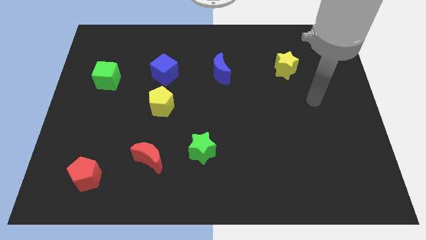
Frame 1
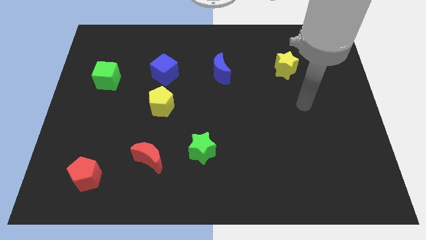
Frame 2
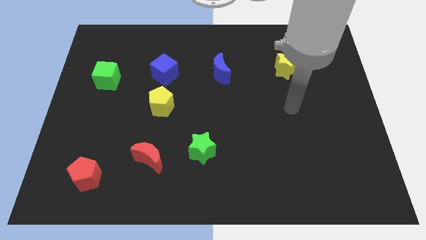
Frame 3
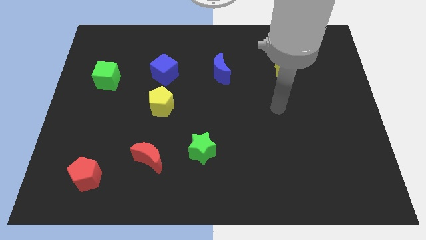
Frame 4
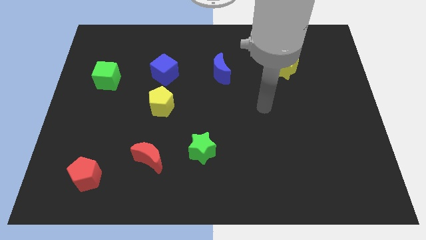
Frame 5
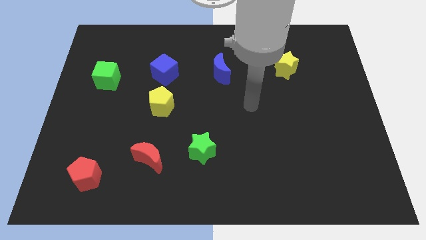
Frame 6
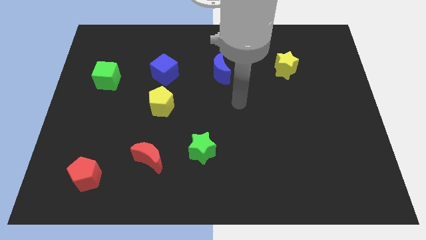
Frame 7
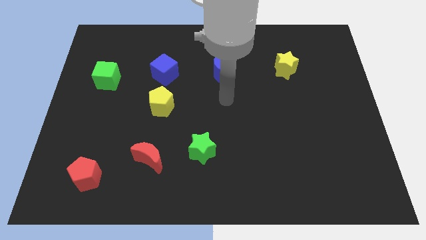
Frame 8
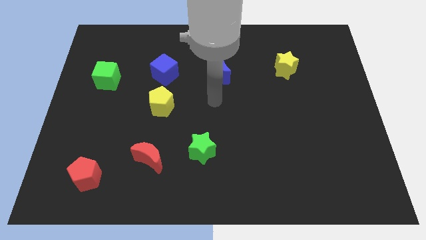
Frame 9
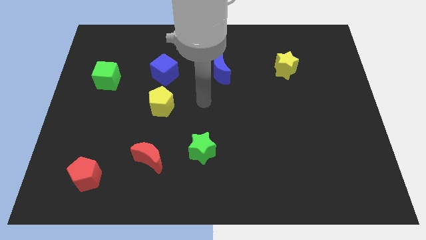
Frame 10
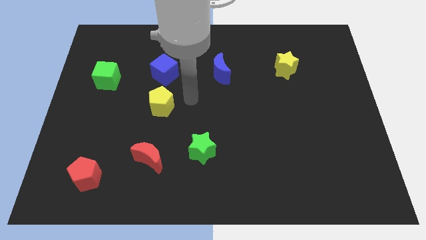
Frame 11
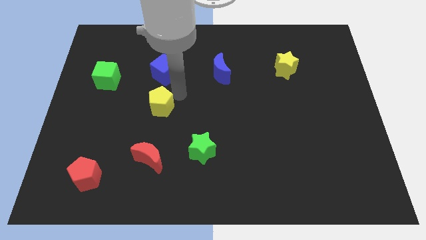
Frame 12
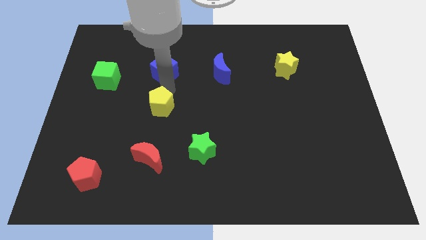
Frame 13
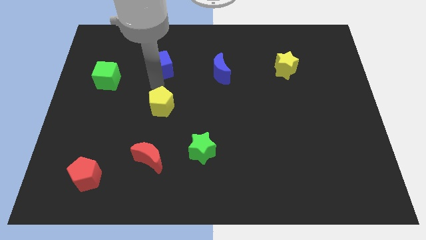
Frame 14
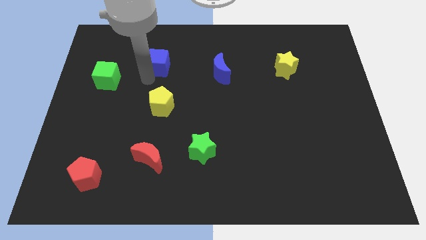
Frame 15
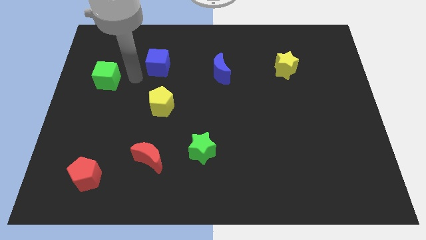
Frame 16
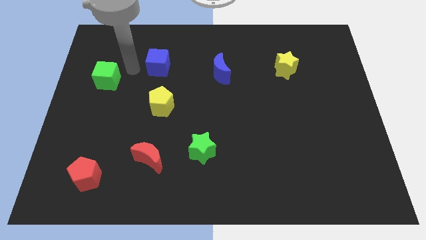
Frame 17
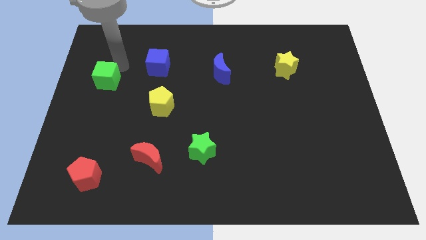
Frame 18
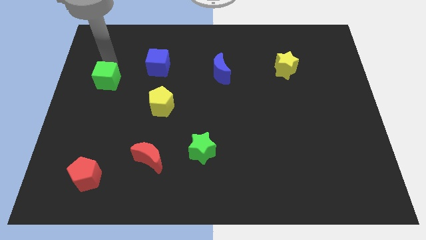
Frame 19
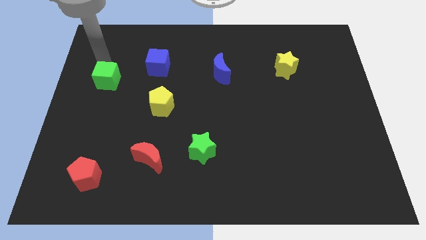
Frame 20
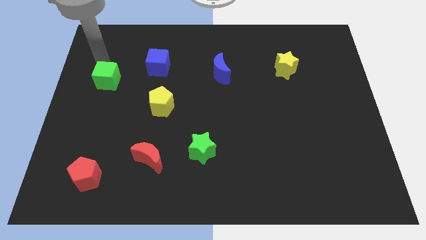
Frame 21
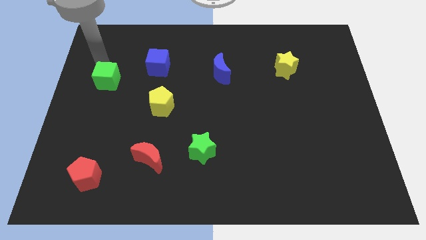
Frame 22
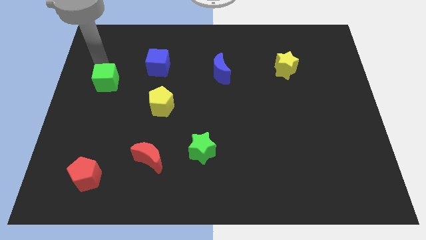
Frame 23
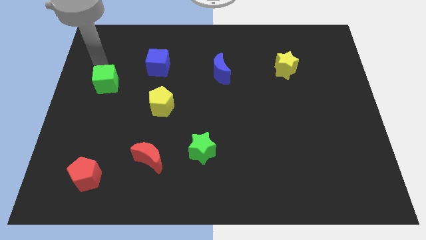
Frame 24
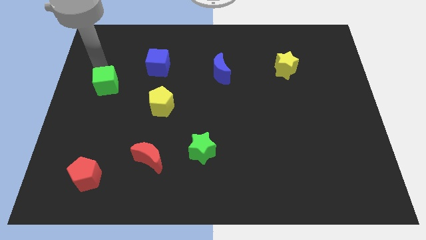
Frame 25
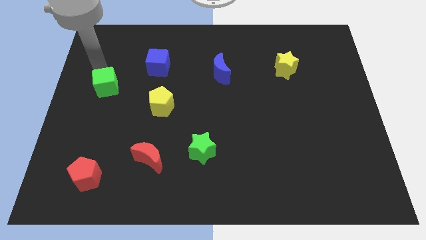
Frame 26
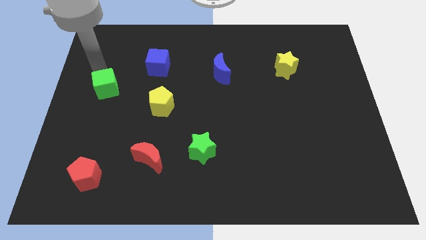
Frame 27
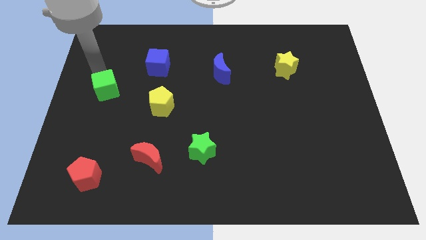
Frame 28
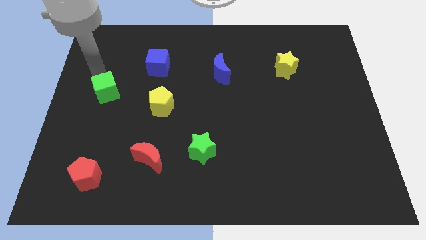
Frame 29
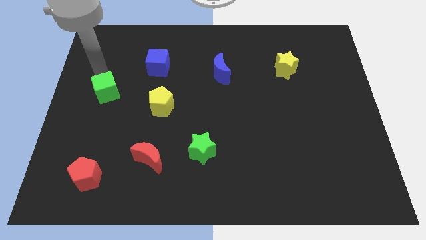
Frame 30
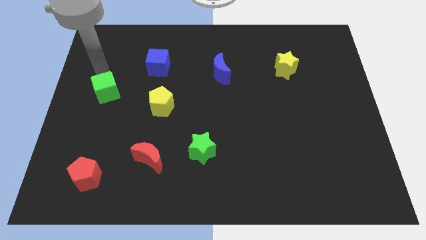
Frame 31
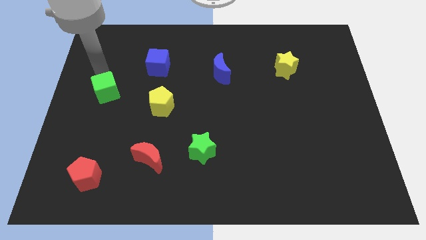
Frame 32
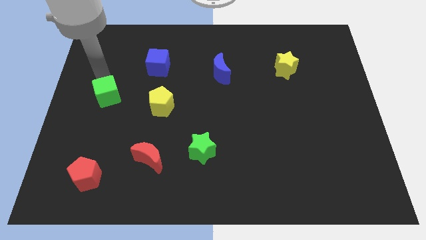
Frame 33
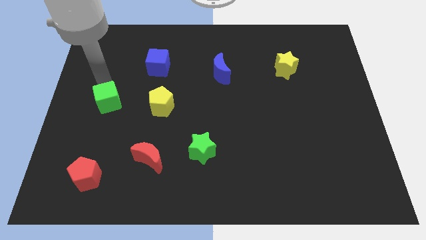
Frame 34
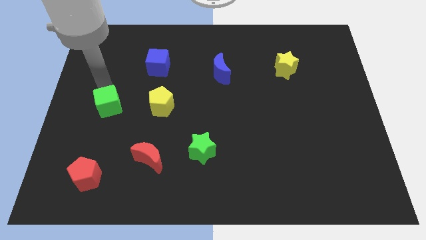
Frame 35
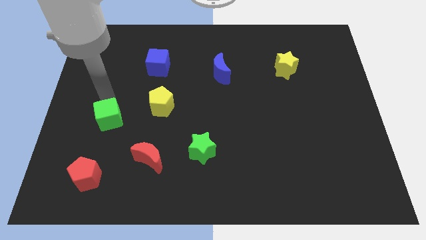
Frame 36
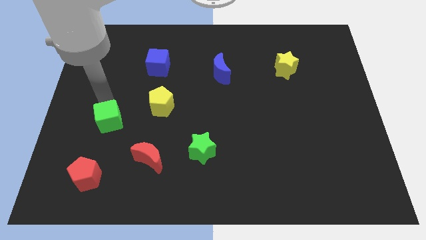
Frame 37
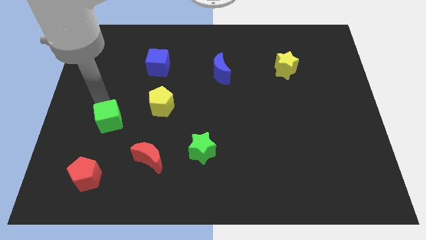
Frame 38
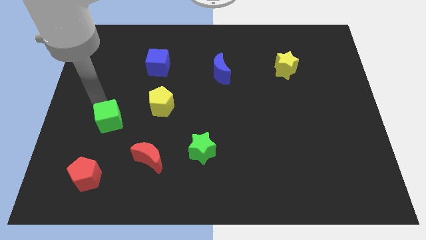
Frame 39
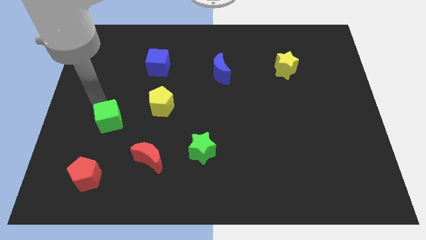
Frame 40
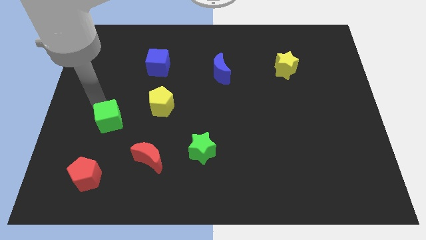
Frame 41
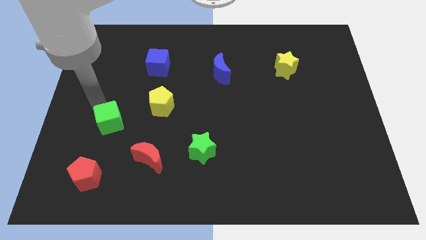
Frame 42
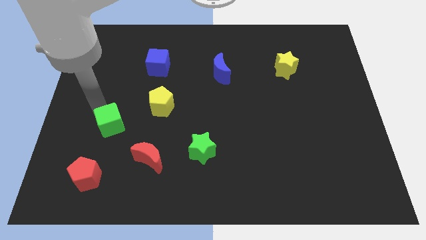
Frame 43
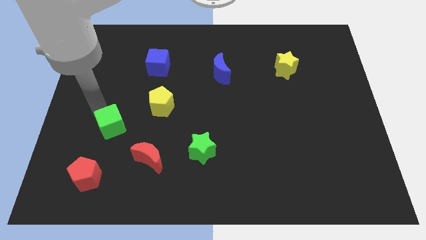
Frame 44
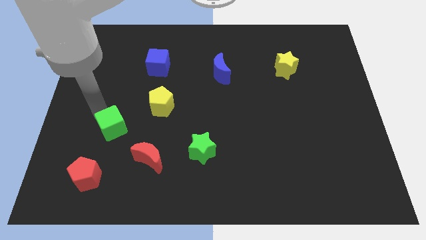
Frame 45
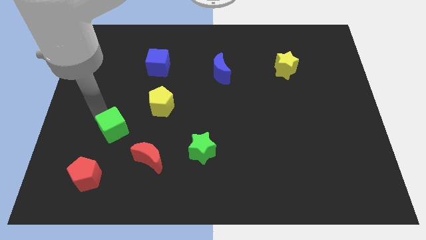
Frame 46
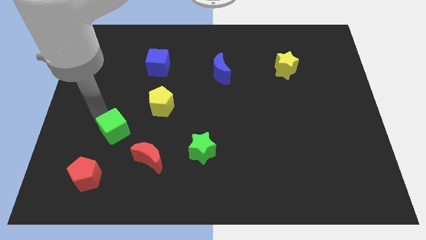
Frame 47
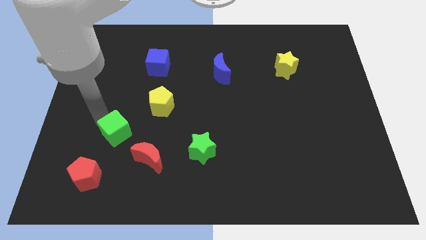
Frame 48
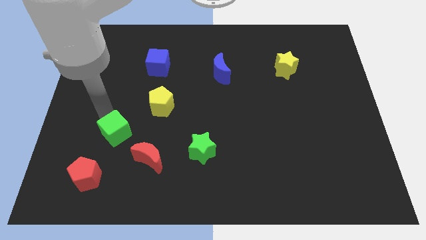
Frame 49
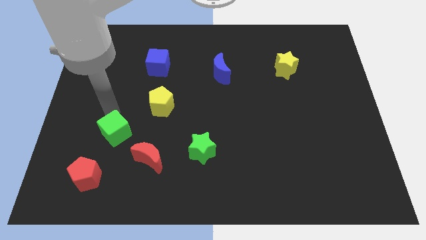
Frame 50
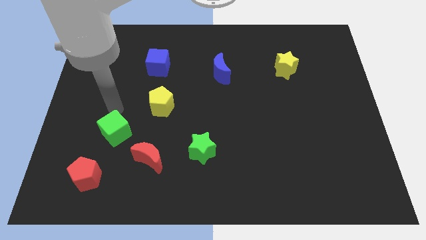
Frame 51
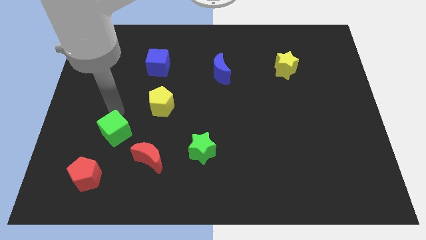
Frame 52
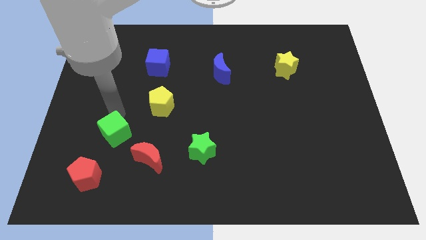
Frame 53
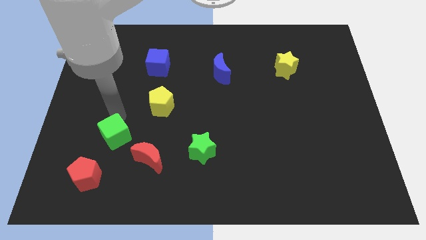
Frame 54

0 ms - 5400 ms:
slide the green cube diagonally up and to the right of the red pentagon

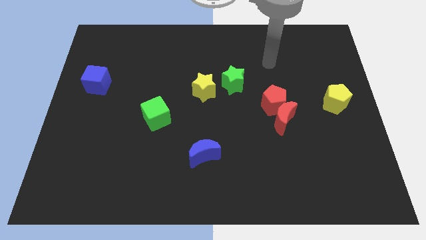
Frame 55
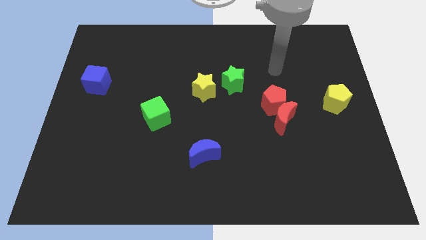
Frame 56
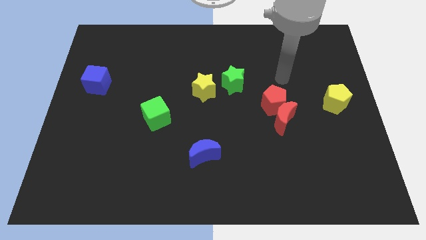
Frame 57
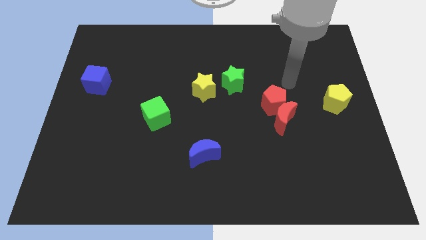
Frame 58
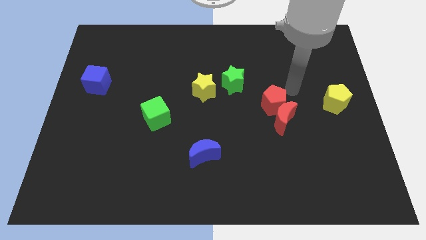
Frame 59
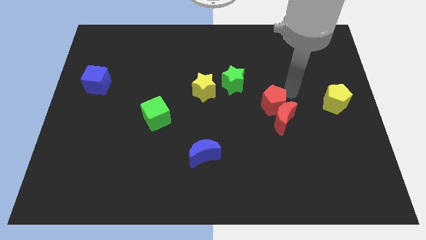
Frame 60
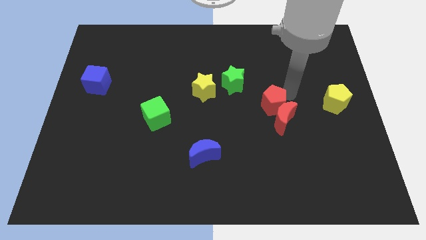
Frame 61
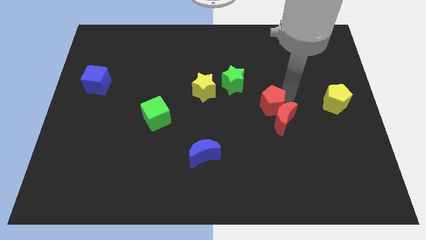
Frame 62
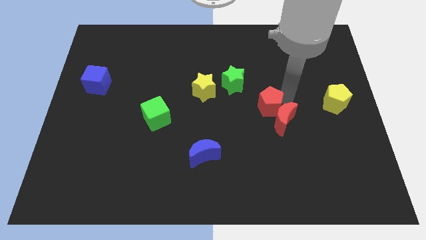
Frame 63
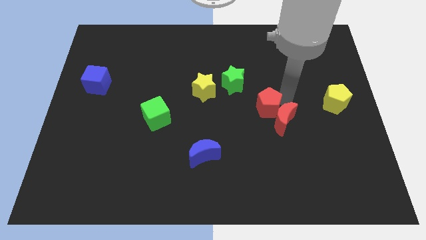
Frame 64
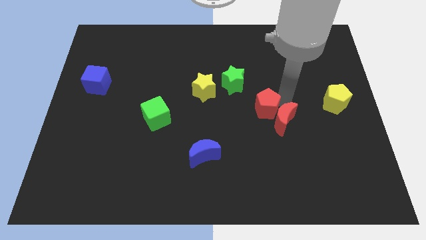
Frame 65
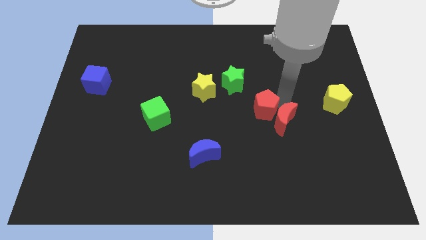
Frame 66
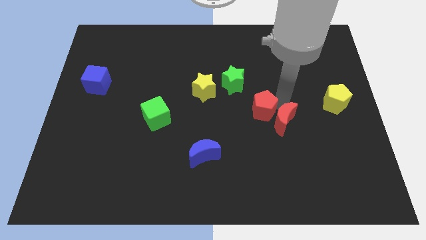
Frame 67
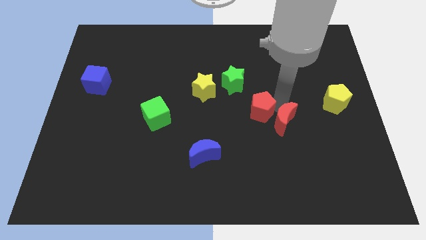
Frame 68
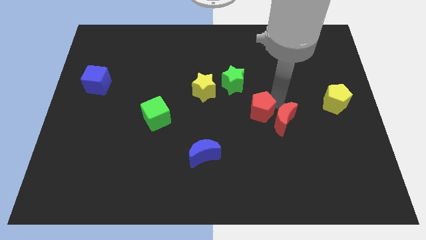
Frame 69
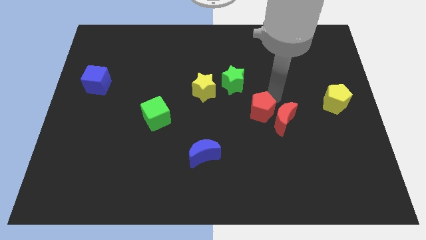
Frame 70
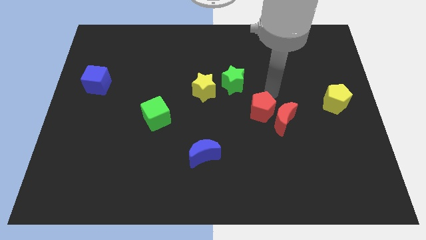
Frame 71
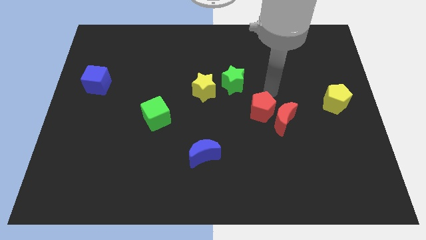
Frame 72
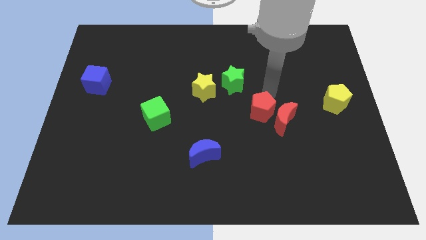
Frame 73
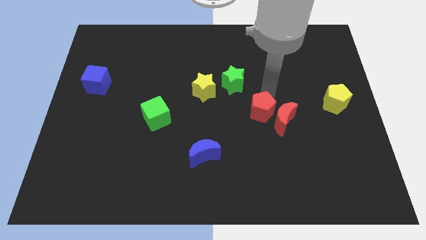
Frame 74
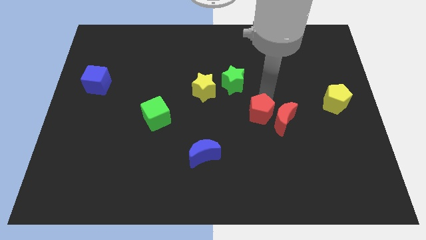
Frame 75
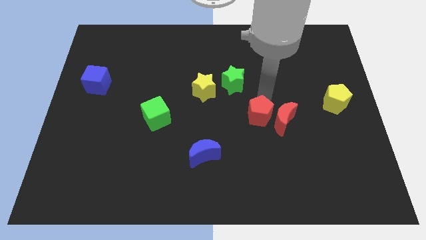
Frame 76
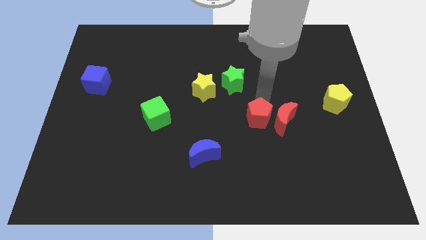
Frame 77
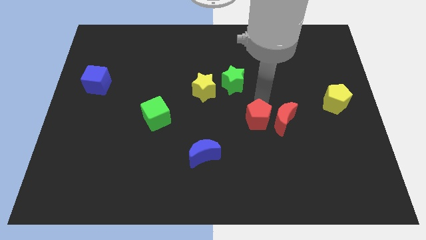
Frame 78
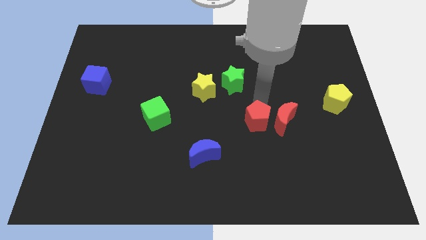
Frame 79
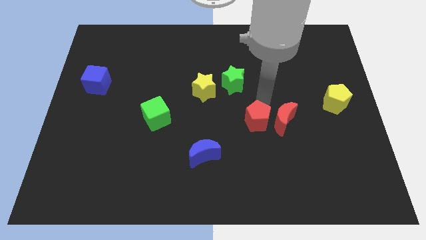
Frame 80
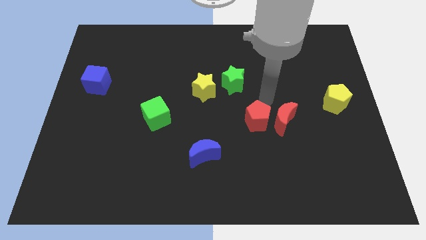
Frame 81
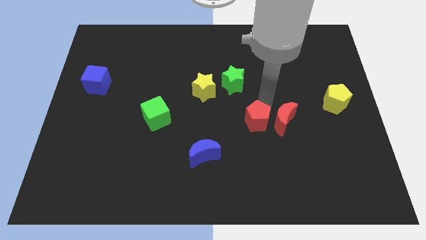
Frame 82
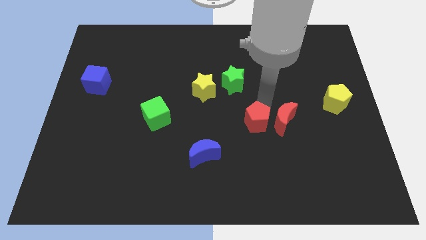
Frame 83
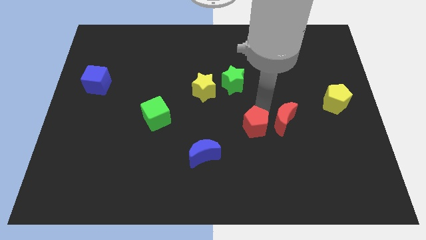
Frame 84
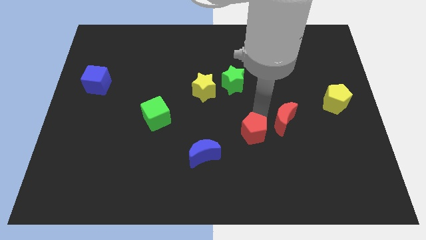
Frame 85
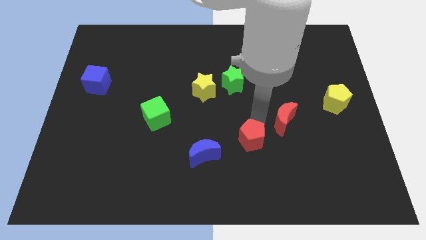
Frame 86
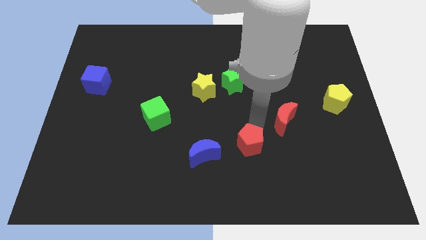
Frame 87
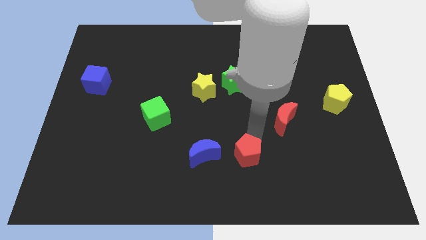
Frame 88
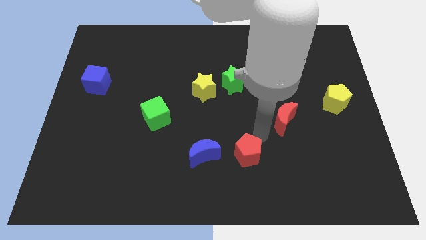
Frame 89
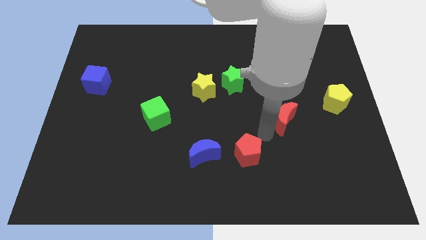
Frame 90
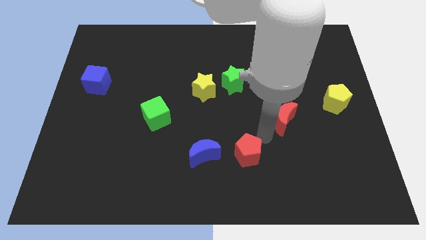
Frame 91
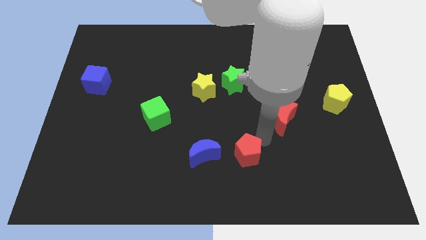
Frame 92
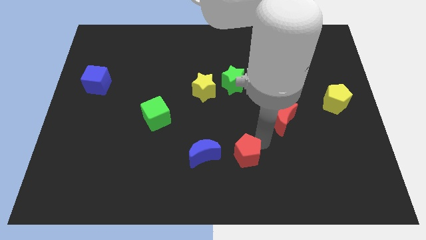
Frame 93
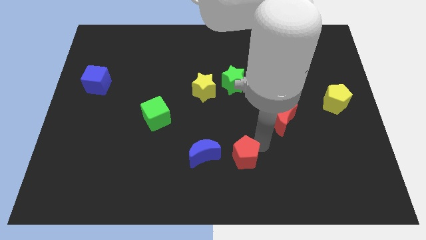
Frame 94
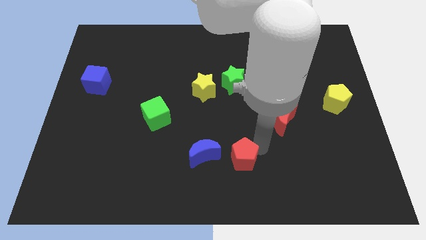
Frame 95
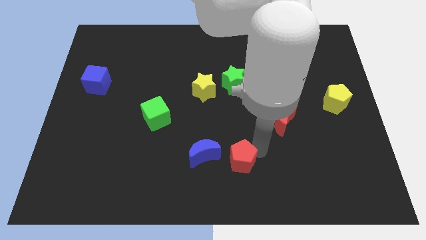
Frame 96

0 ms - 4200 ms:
slide the red pentagon to the bottom right side of the blue moon
